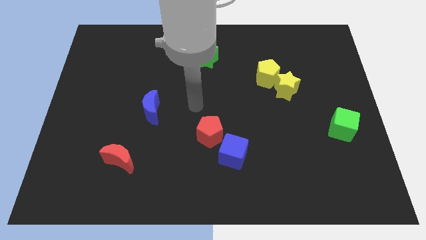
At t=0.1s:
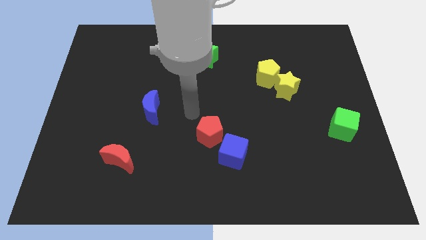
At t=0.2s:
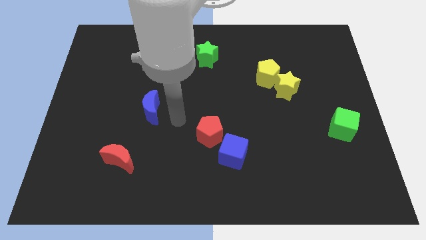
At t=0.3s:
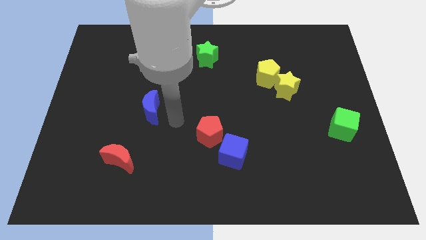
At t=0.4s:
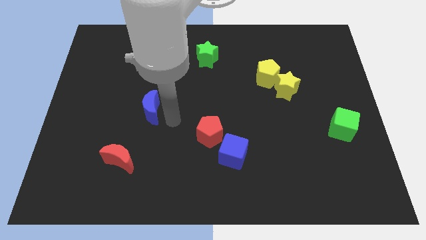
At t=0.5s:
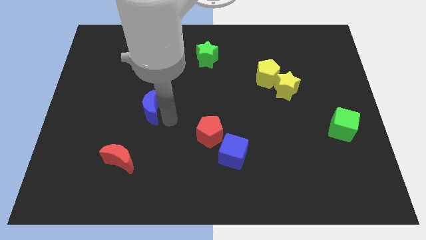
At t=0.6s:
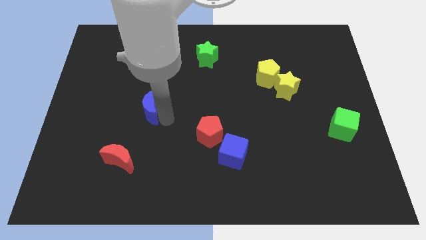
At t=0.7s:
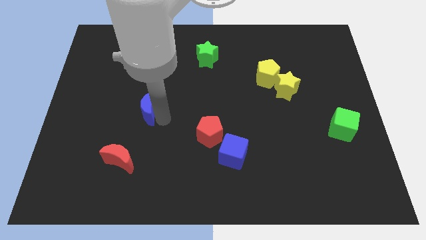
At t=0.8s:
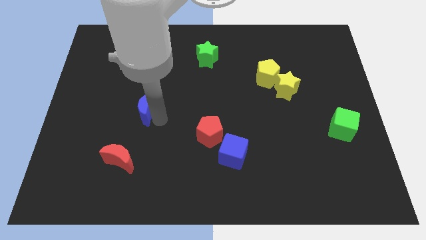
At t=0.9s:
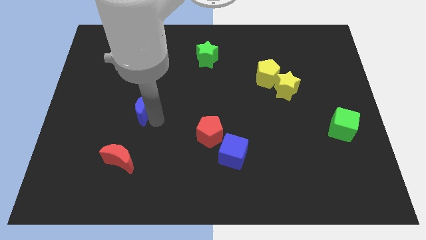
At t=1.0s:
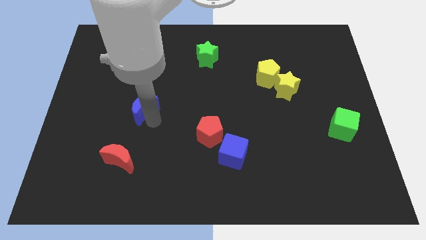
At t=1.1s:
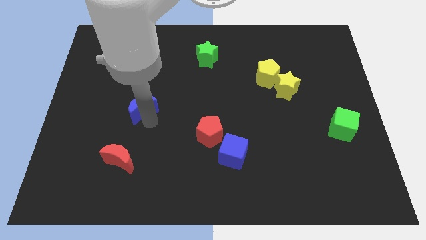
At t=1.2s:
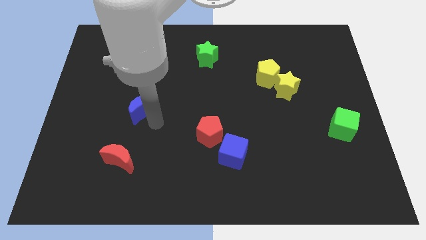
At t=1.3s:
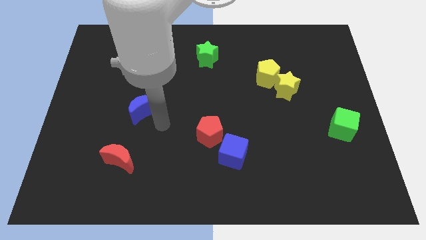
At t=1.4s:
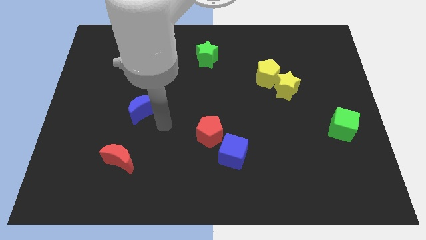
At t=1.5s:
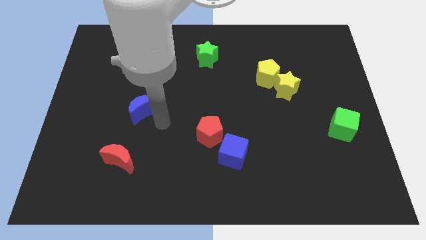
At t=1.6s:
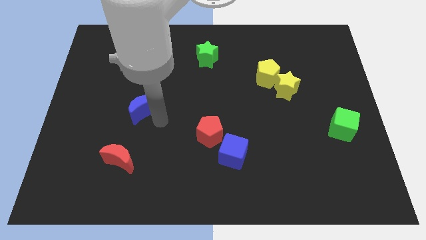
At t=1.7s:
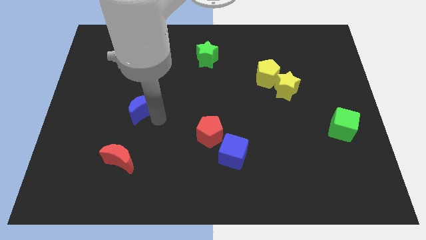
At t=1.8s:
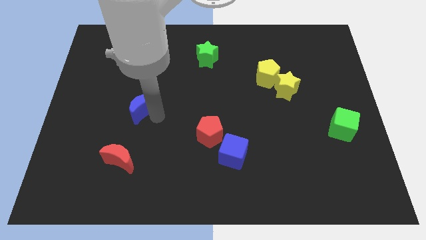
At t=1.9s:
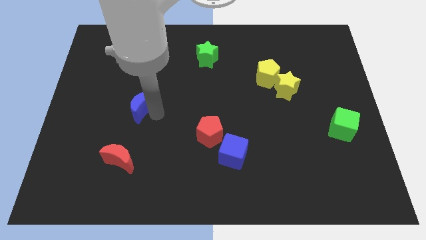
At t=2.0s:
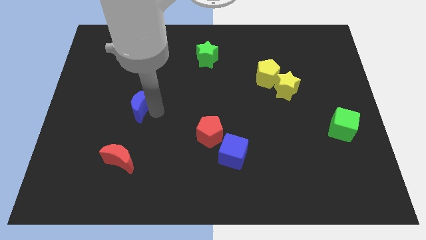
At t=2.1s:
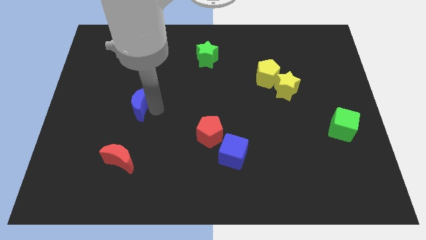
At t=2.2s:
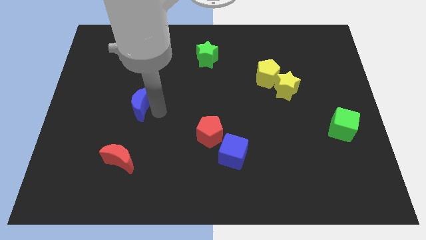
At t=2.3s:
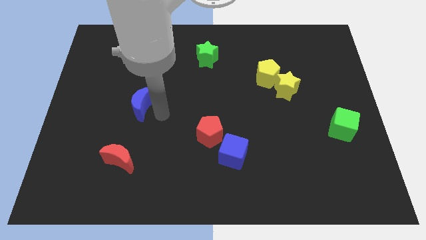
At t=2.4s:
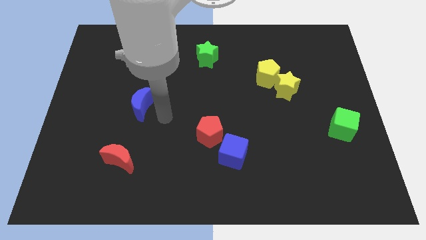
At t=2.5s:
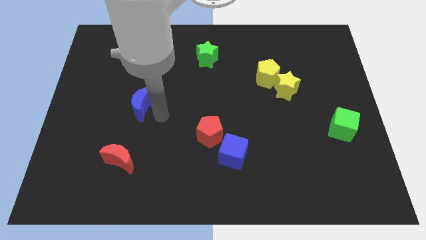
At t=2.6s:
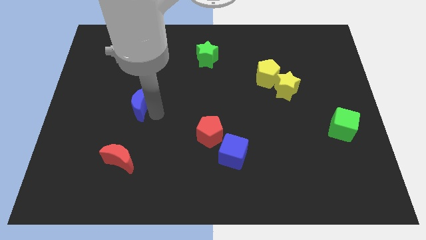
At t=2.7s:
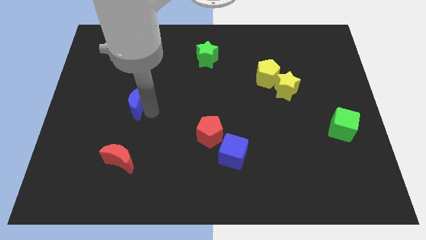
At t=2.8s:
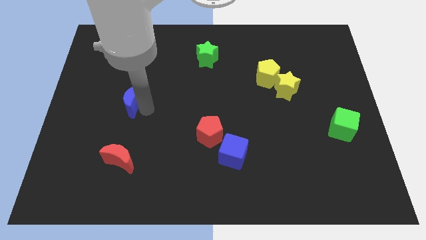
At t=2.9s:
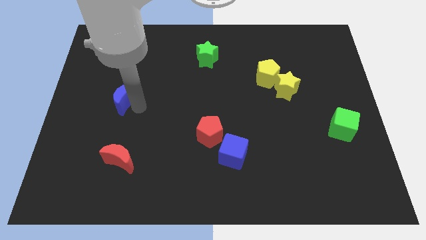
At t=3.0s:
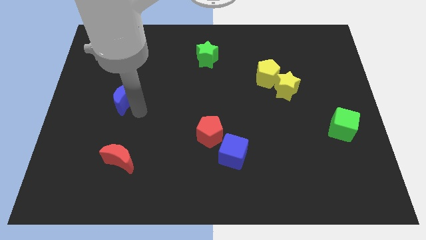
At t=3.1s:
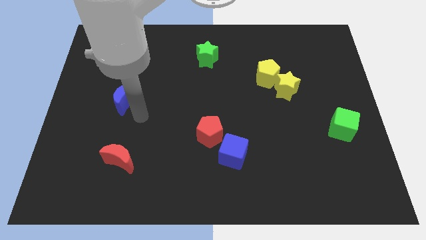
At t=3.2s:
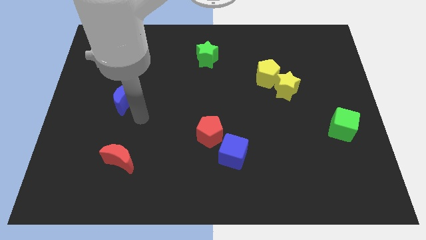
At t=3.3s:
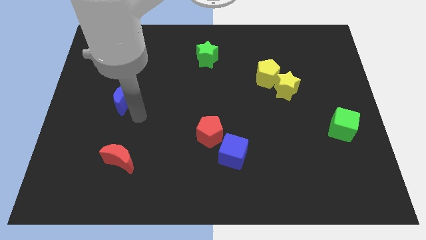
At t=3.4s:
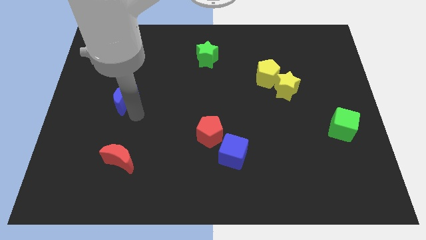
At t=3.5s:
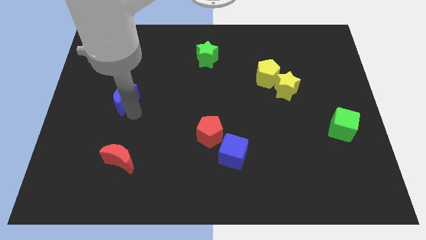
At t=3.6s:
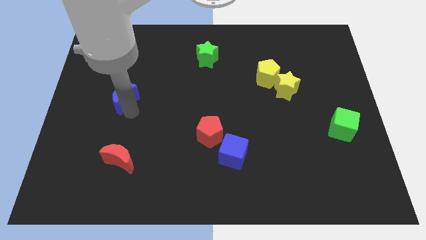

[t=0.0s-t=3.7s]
slightly push the blue moon upwards and left diagonally

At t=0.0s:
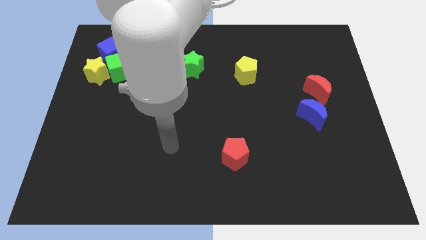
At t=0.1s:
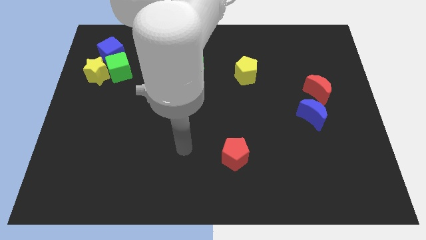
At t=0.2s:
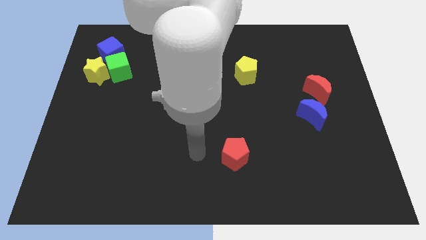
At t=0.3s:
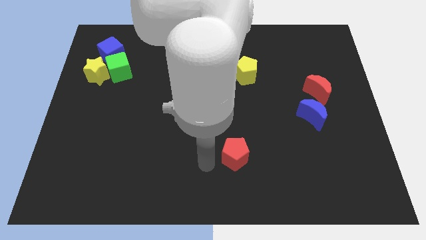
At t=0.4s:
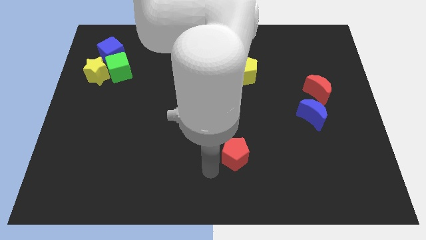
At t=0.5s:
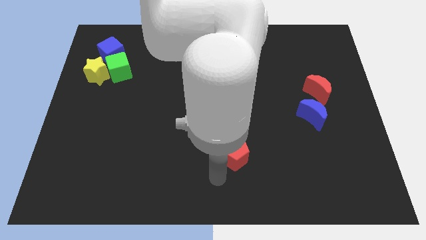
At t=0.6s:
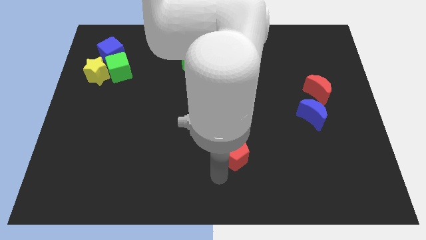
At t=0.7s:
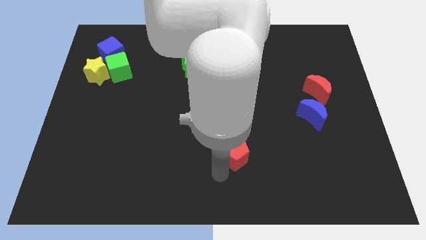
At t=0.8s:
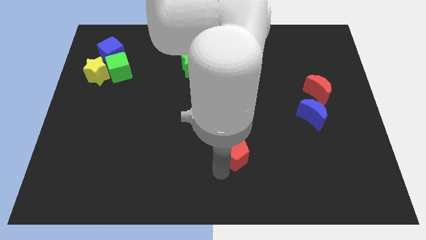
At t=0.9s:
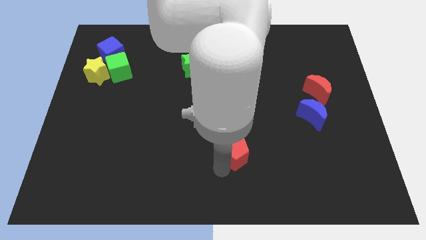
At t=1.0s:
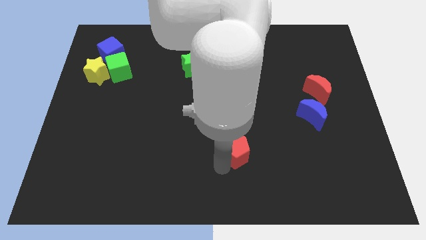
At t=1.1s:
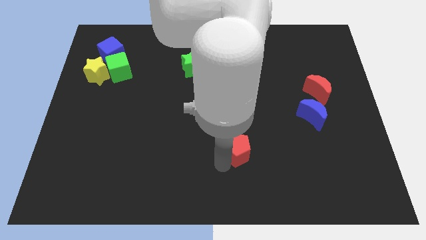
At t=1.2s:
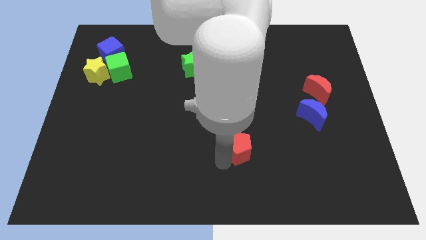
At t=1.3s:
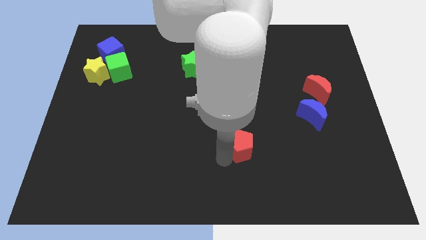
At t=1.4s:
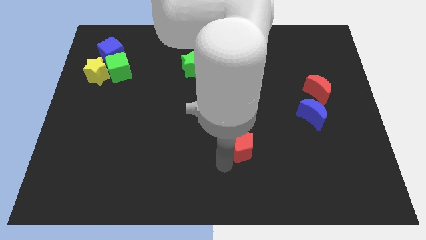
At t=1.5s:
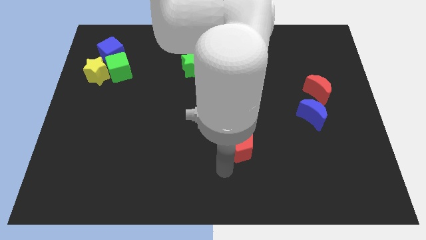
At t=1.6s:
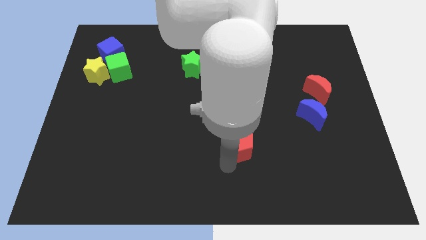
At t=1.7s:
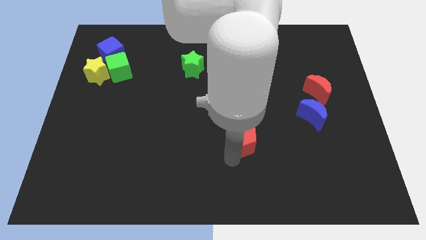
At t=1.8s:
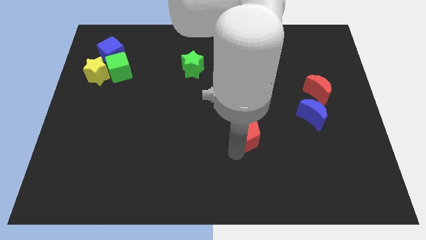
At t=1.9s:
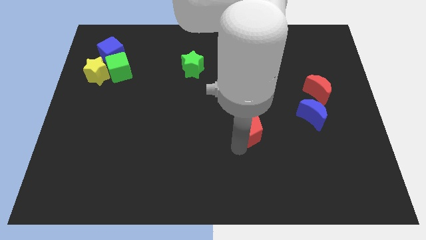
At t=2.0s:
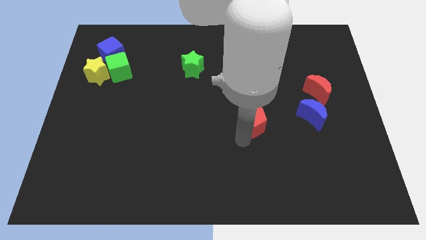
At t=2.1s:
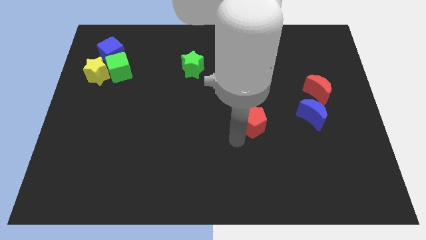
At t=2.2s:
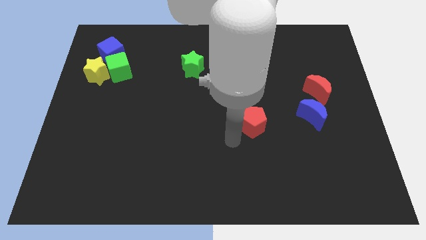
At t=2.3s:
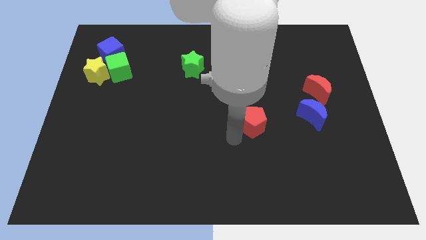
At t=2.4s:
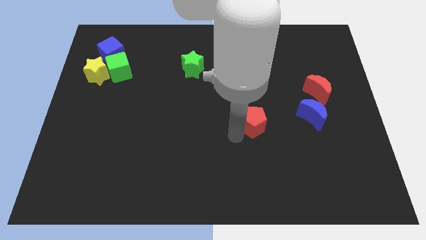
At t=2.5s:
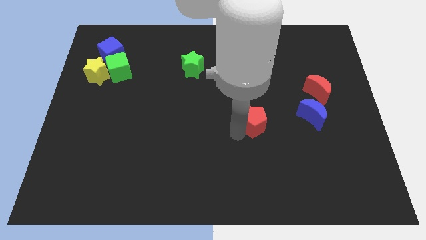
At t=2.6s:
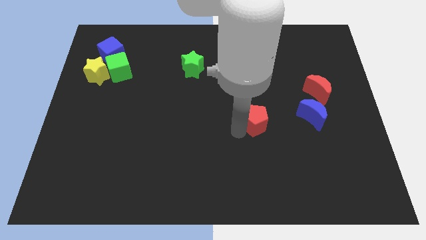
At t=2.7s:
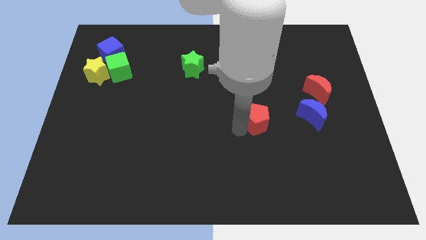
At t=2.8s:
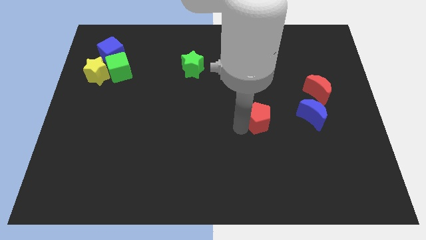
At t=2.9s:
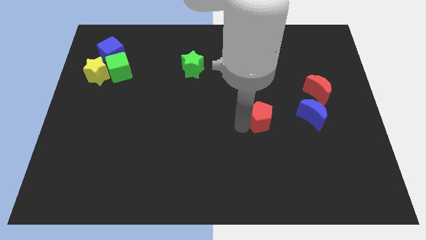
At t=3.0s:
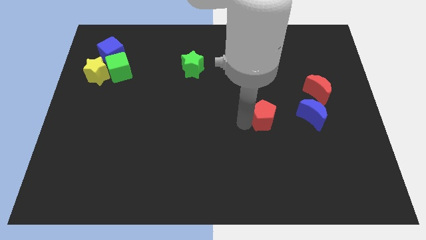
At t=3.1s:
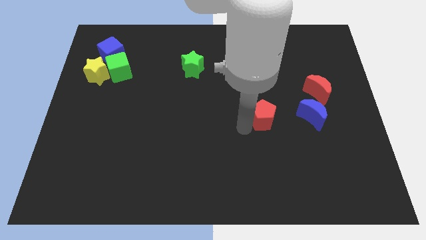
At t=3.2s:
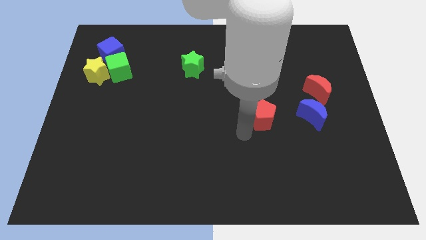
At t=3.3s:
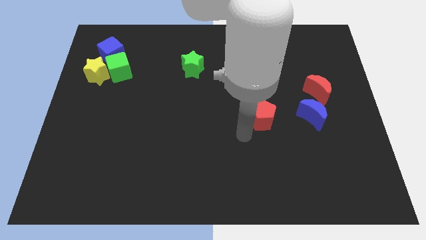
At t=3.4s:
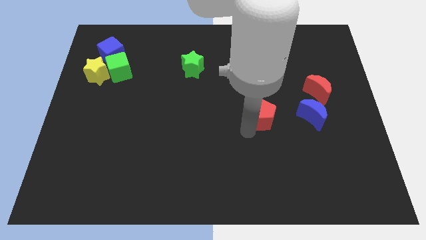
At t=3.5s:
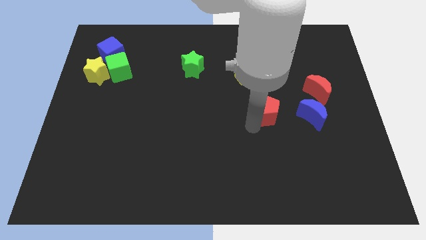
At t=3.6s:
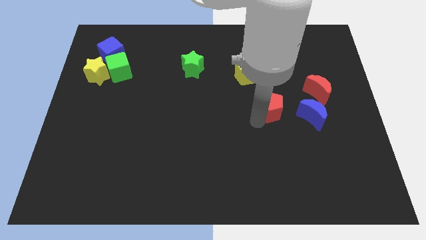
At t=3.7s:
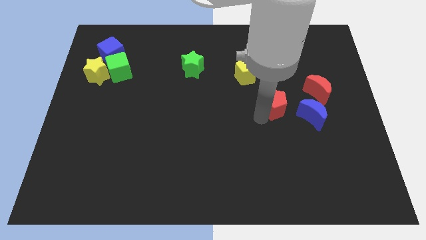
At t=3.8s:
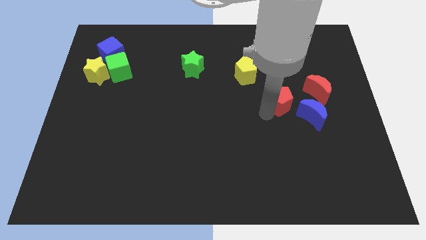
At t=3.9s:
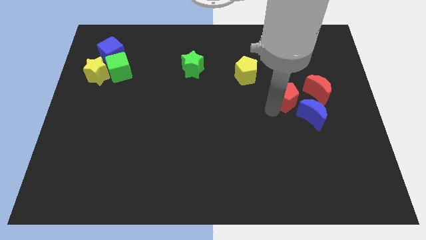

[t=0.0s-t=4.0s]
slide the red pentagon diagonally upwards and right
